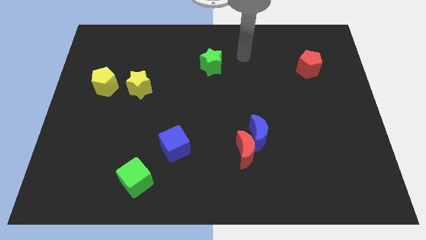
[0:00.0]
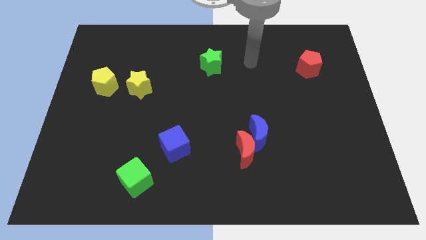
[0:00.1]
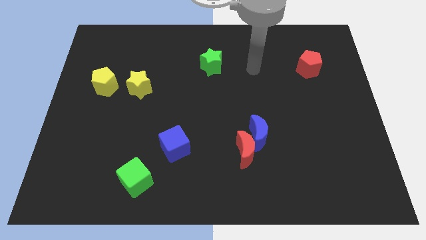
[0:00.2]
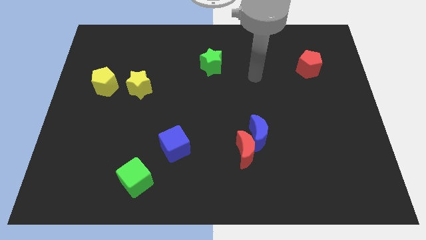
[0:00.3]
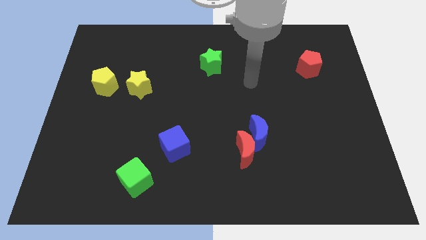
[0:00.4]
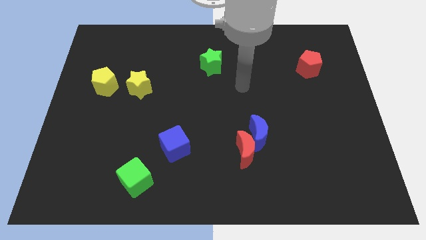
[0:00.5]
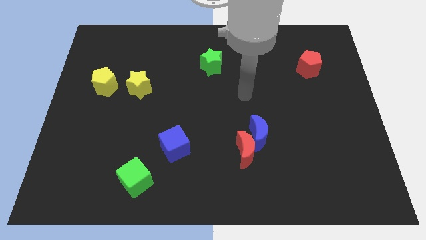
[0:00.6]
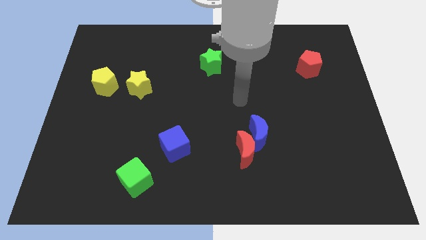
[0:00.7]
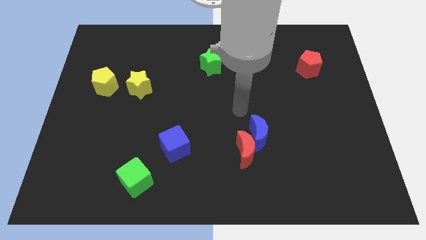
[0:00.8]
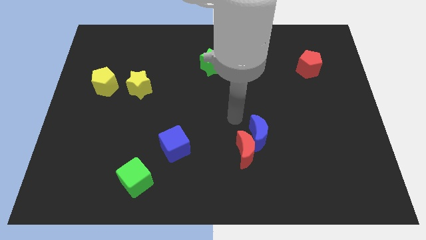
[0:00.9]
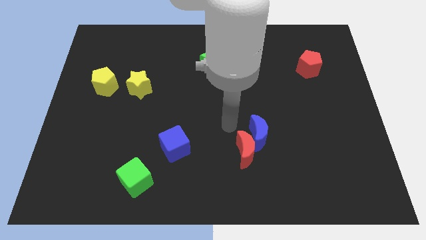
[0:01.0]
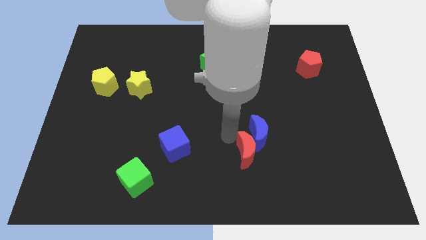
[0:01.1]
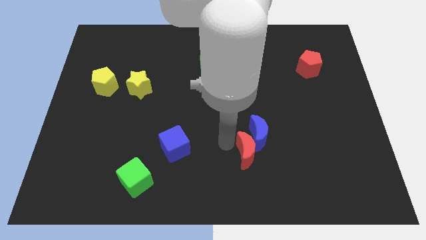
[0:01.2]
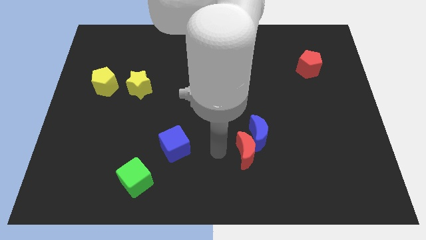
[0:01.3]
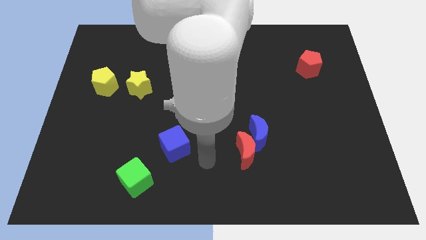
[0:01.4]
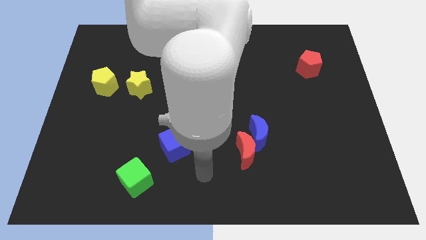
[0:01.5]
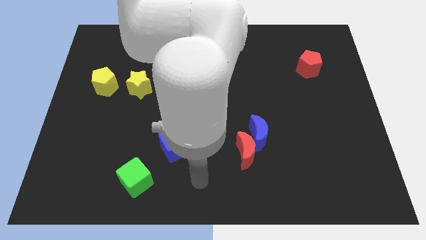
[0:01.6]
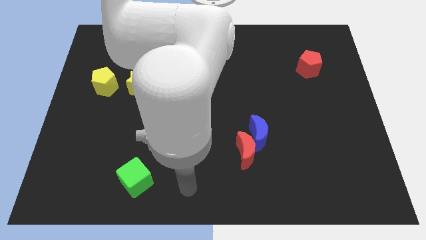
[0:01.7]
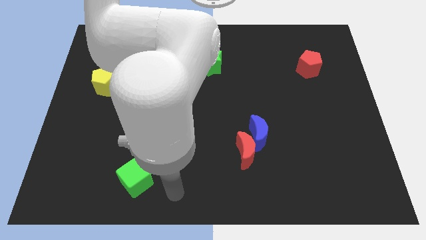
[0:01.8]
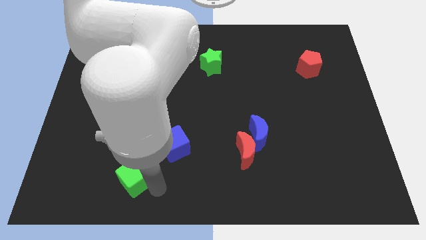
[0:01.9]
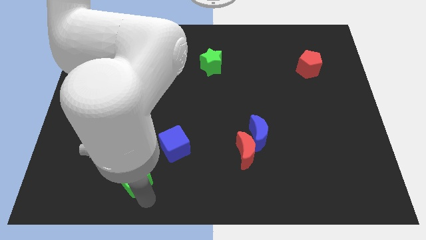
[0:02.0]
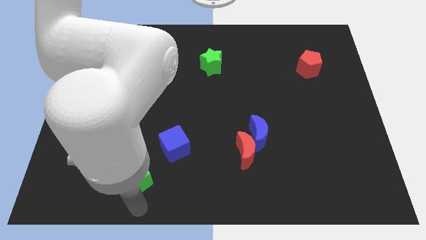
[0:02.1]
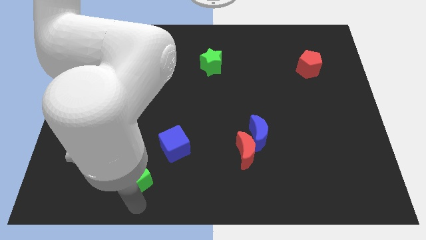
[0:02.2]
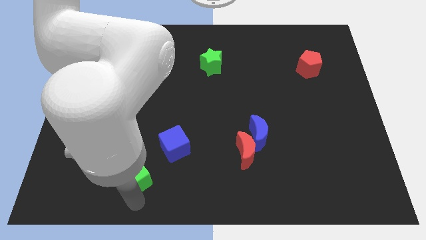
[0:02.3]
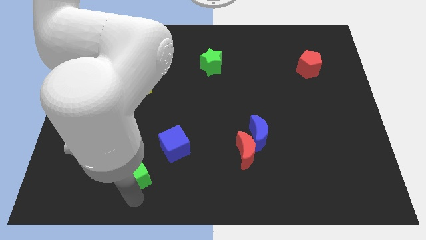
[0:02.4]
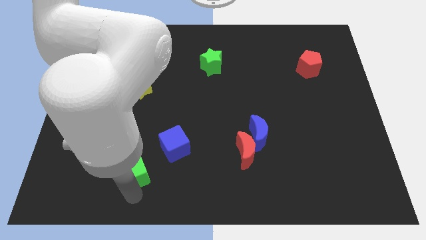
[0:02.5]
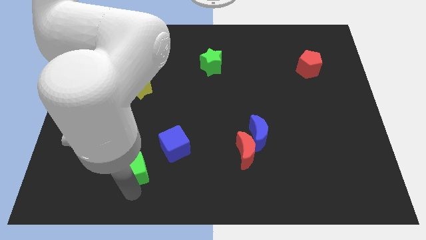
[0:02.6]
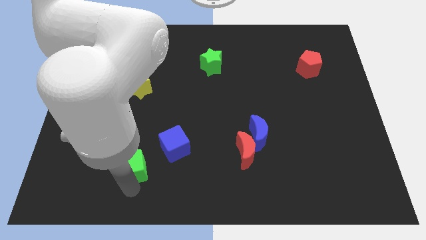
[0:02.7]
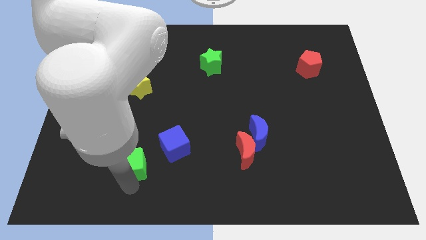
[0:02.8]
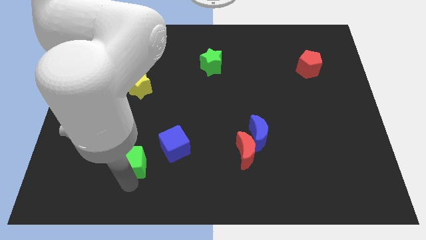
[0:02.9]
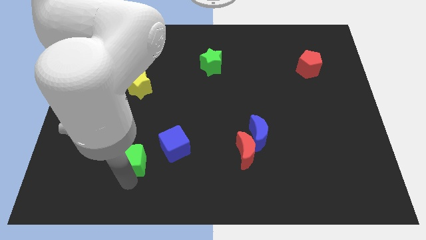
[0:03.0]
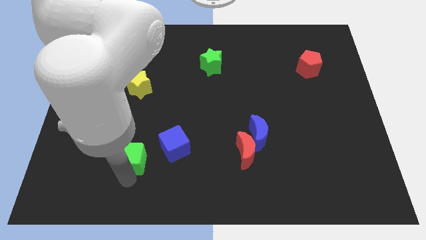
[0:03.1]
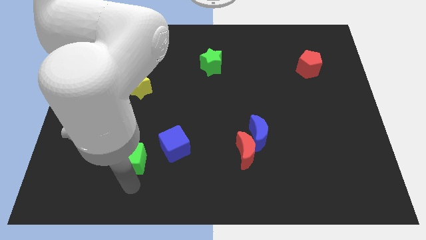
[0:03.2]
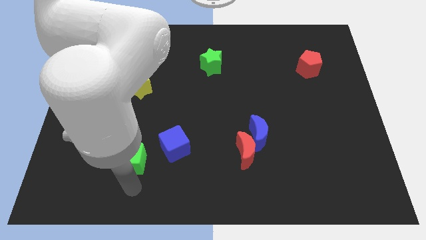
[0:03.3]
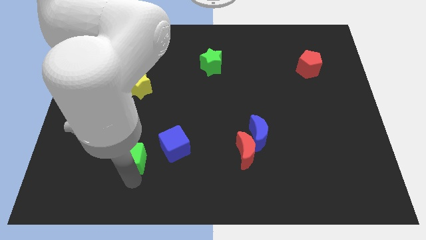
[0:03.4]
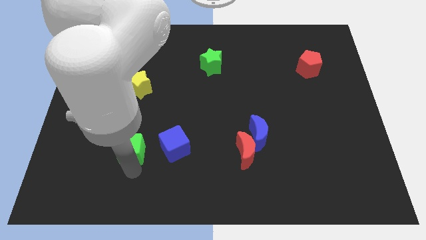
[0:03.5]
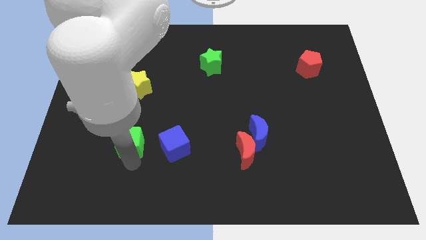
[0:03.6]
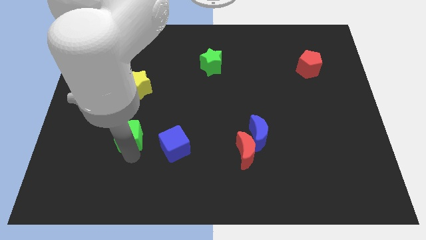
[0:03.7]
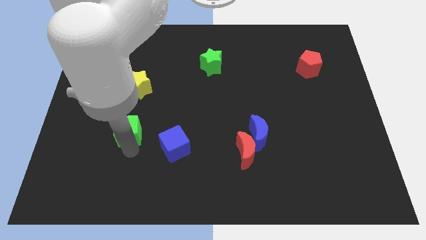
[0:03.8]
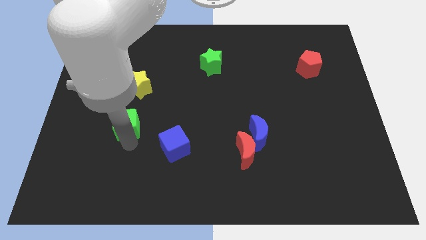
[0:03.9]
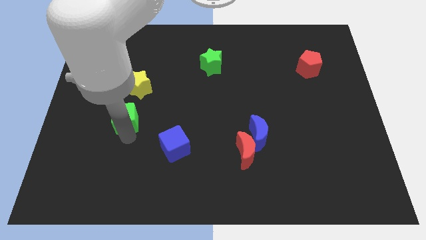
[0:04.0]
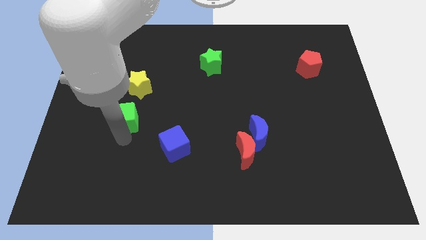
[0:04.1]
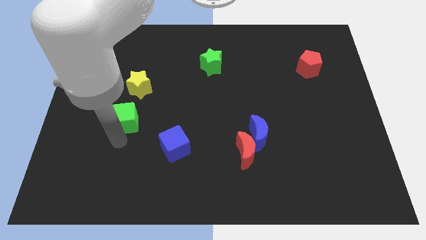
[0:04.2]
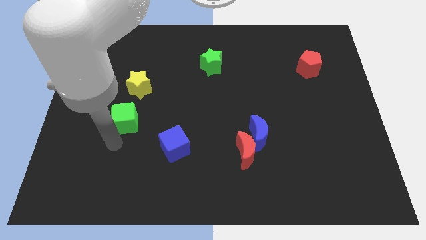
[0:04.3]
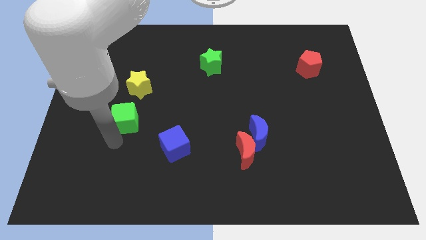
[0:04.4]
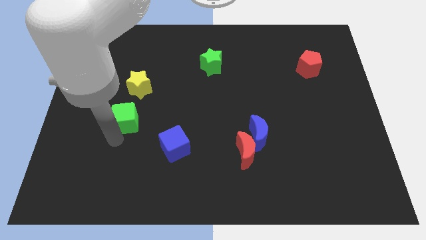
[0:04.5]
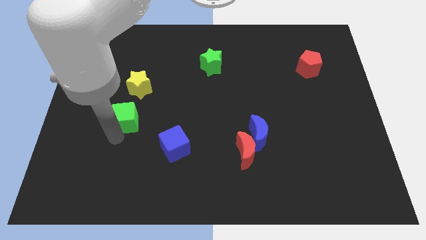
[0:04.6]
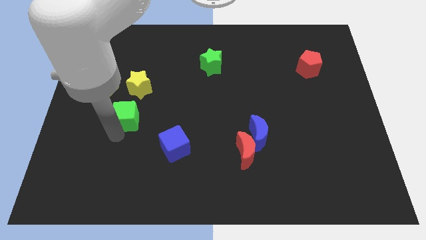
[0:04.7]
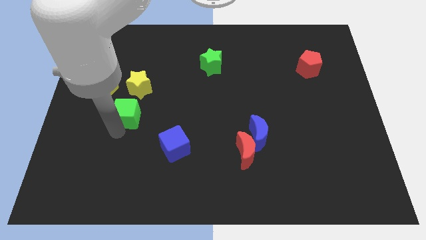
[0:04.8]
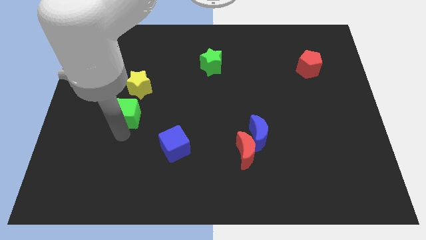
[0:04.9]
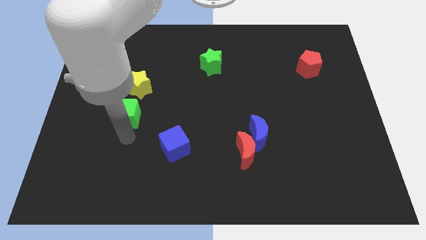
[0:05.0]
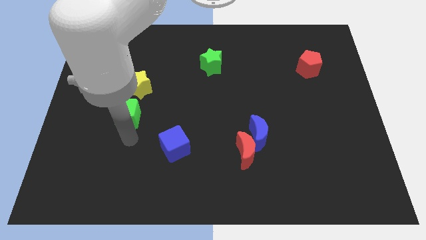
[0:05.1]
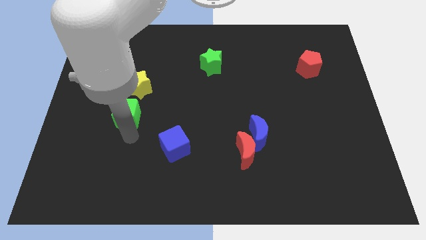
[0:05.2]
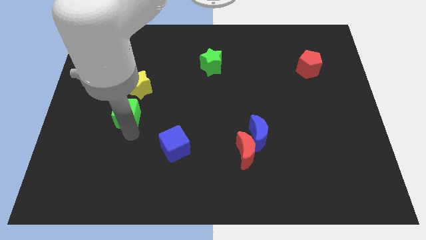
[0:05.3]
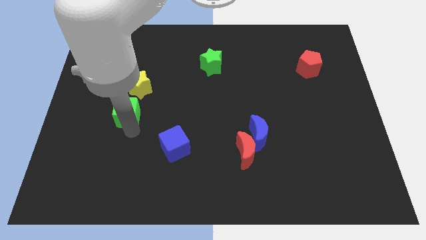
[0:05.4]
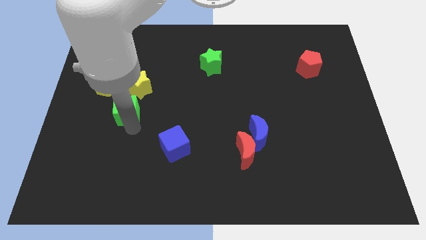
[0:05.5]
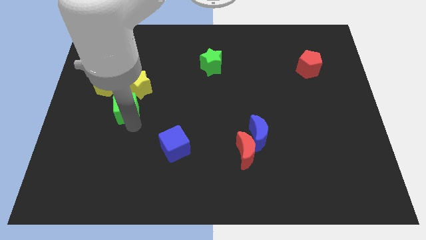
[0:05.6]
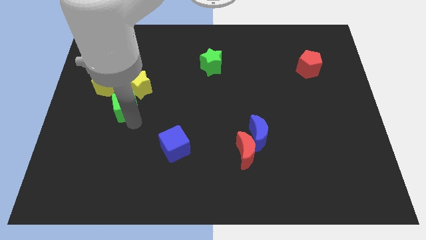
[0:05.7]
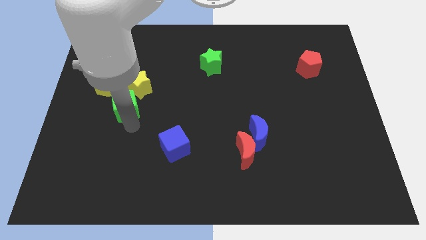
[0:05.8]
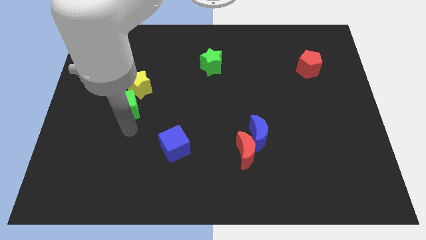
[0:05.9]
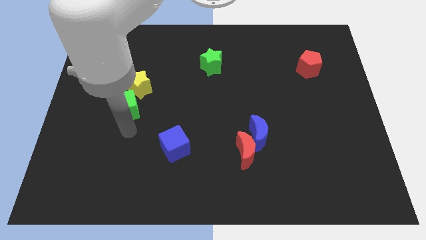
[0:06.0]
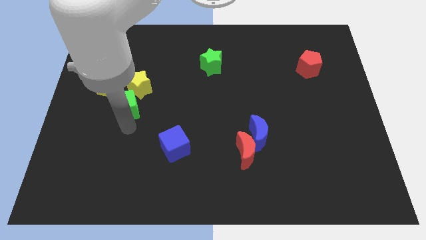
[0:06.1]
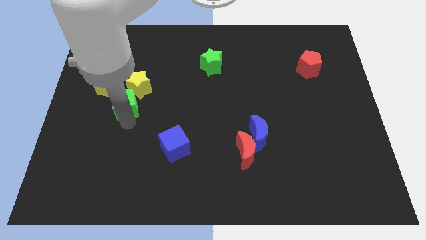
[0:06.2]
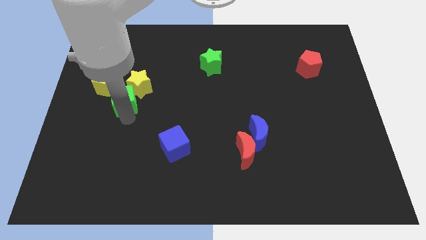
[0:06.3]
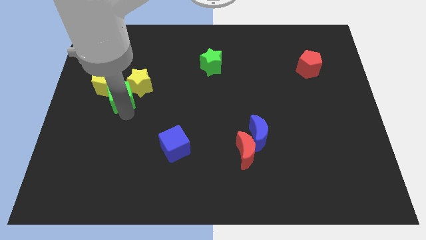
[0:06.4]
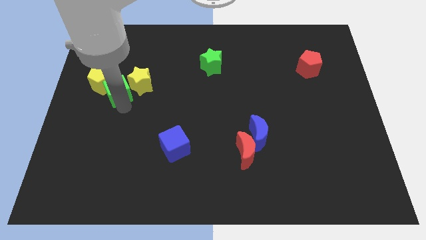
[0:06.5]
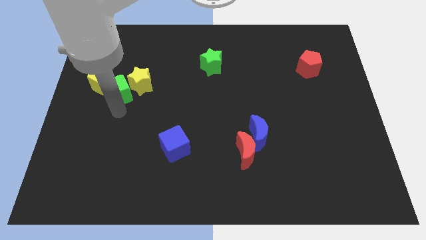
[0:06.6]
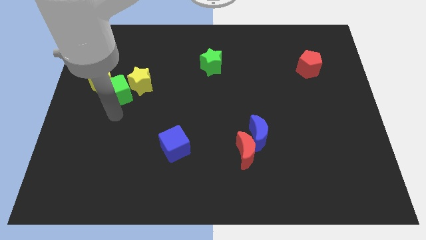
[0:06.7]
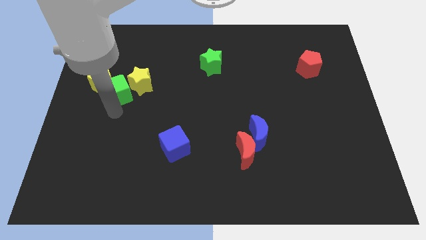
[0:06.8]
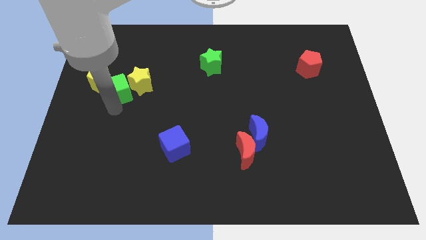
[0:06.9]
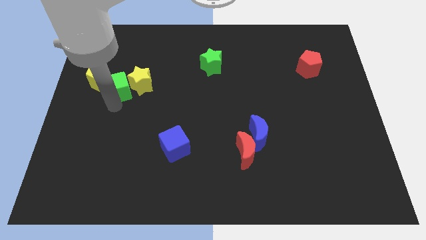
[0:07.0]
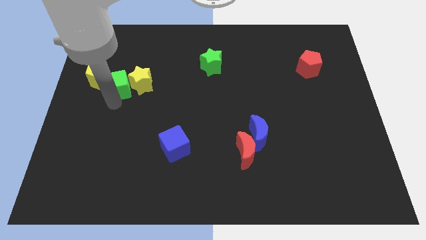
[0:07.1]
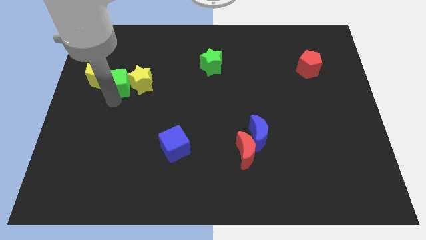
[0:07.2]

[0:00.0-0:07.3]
put the green cube to the top left of the yellow star
